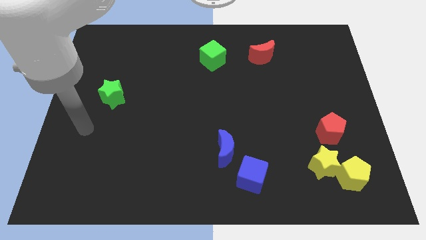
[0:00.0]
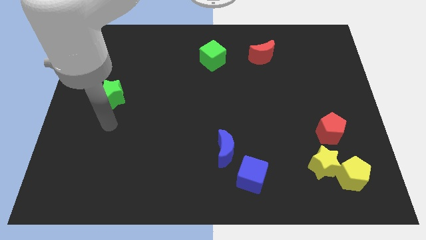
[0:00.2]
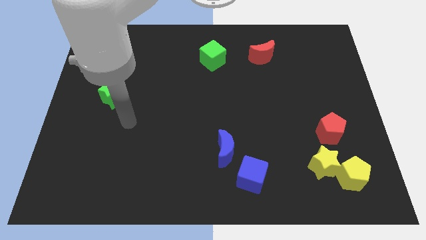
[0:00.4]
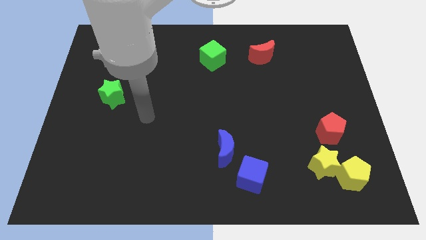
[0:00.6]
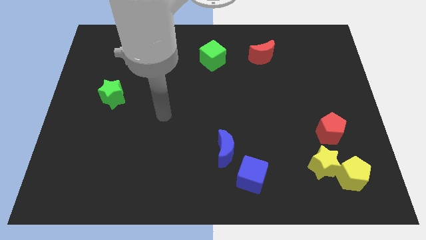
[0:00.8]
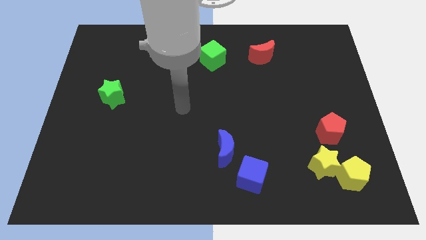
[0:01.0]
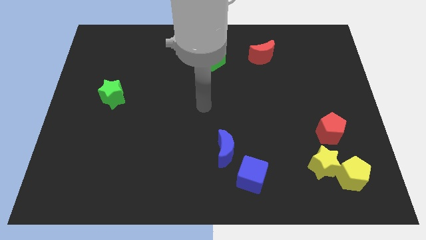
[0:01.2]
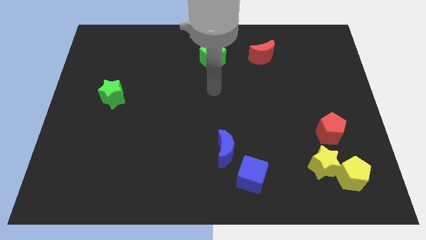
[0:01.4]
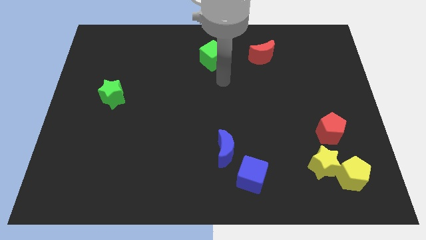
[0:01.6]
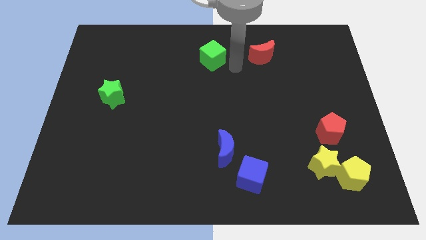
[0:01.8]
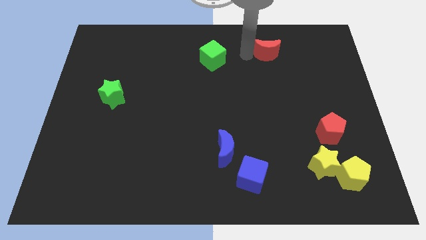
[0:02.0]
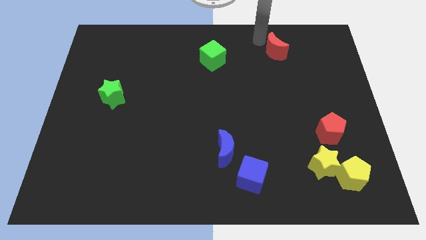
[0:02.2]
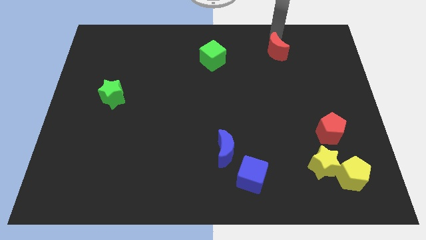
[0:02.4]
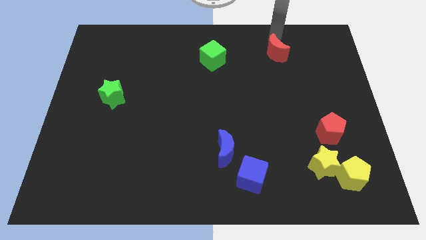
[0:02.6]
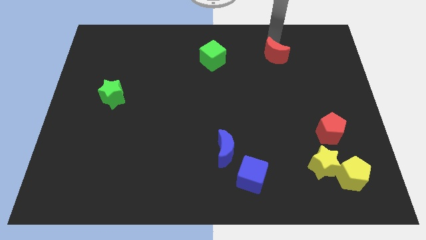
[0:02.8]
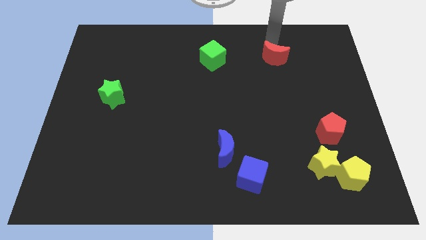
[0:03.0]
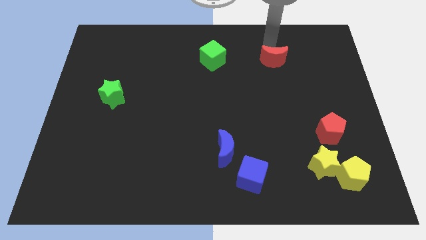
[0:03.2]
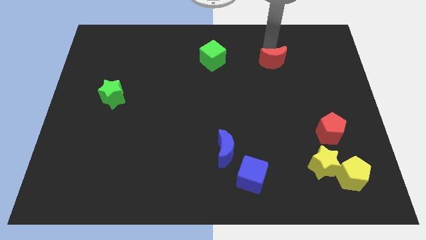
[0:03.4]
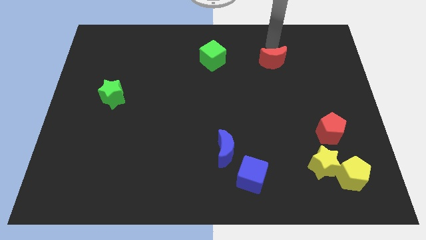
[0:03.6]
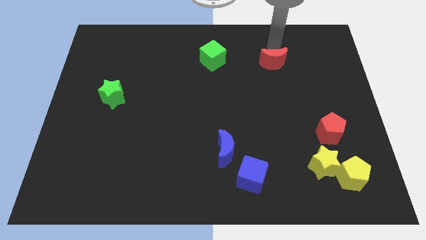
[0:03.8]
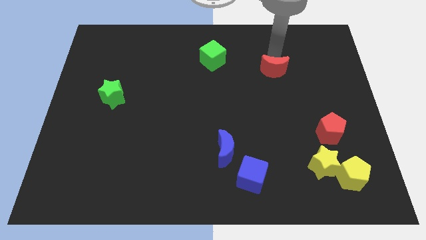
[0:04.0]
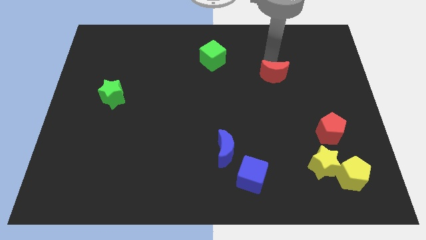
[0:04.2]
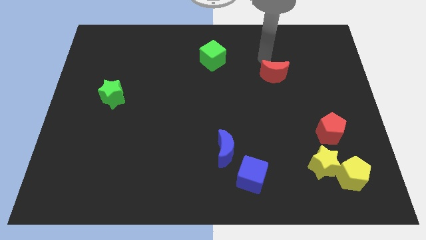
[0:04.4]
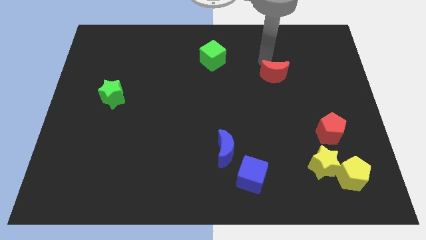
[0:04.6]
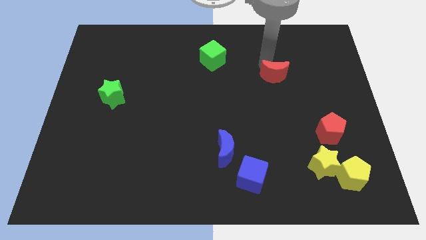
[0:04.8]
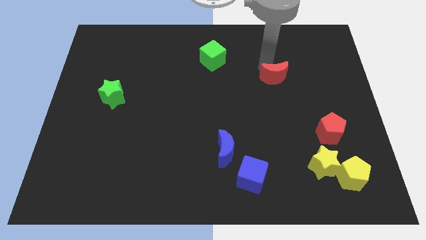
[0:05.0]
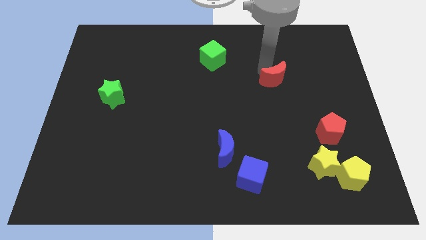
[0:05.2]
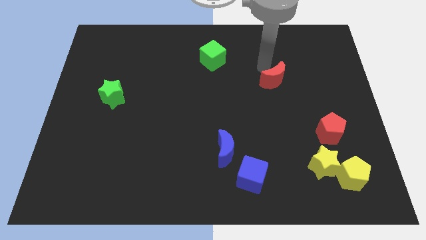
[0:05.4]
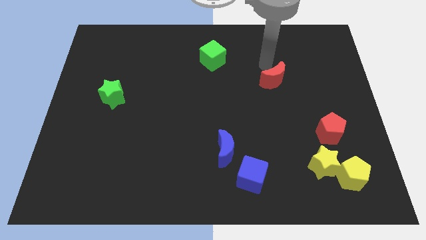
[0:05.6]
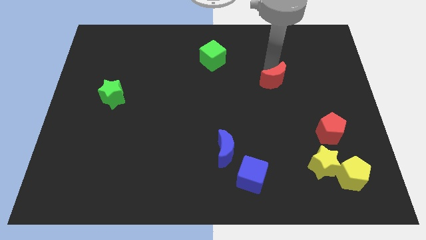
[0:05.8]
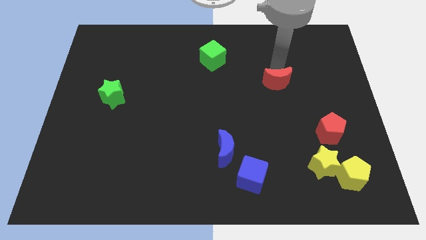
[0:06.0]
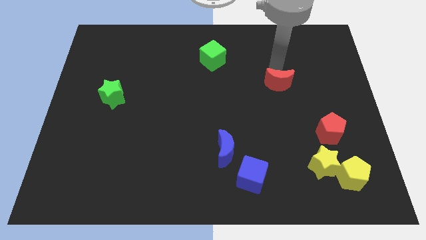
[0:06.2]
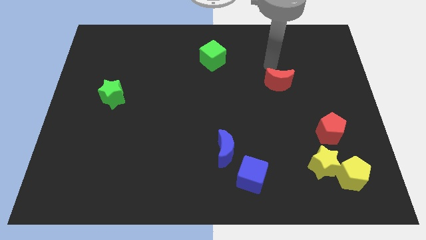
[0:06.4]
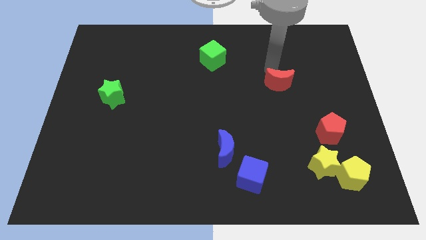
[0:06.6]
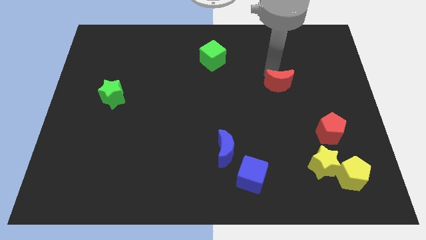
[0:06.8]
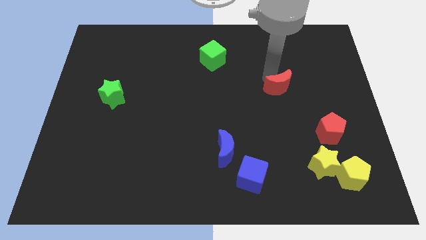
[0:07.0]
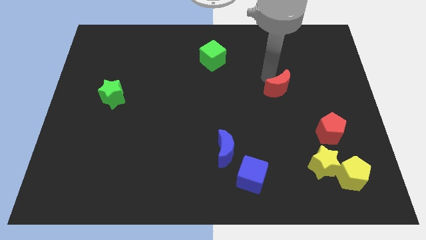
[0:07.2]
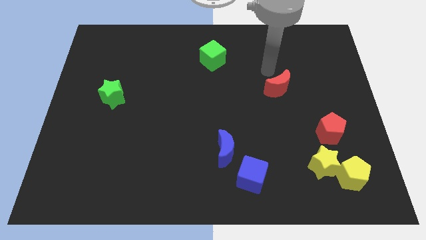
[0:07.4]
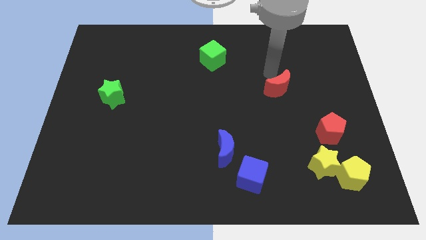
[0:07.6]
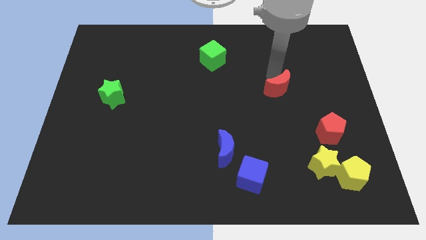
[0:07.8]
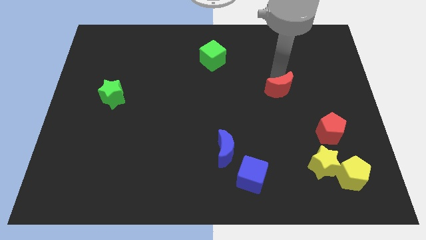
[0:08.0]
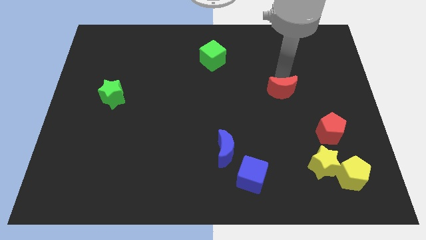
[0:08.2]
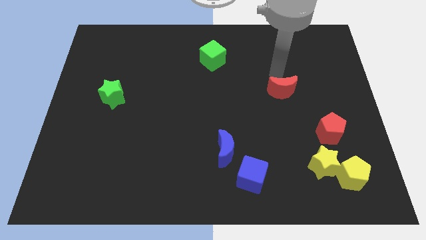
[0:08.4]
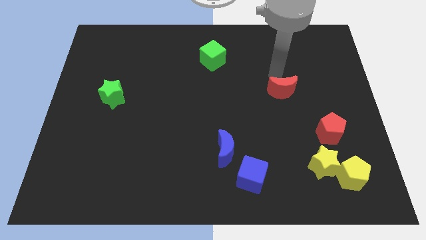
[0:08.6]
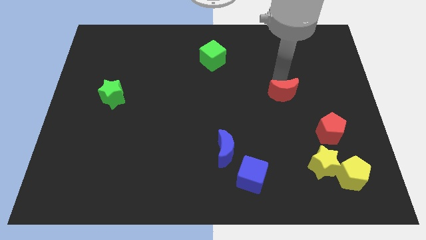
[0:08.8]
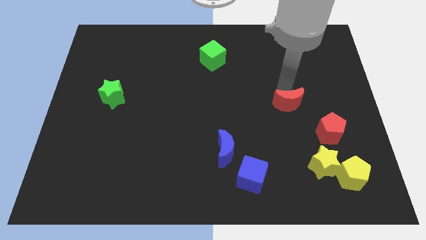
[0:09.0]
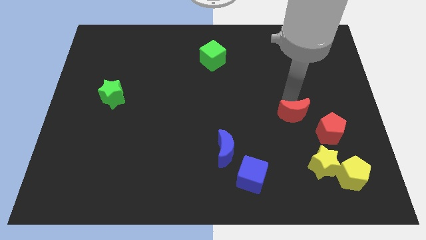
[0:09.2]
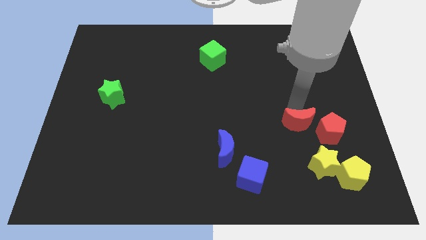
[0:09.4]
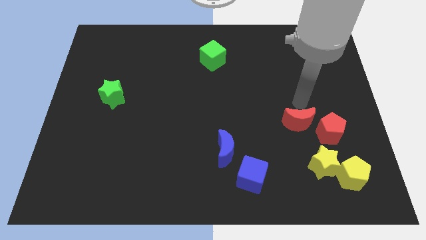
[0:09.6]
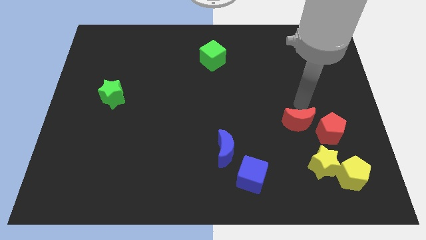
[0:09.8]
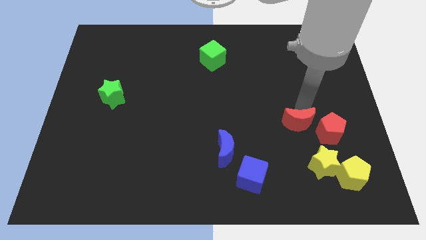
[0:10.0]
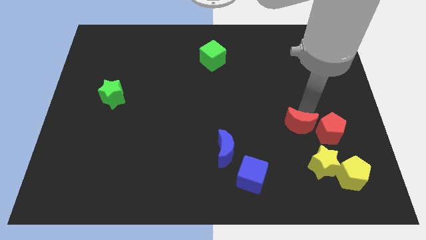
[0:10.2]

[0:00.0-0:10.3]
push the red moon to the top left of the yellow star

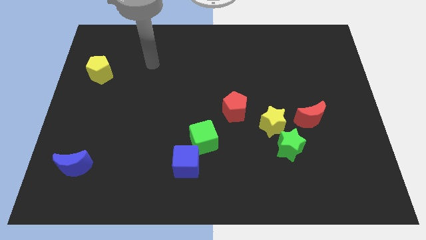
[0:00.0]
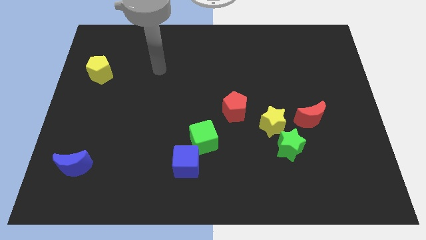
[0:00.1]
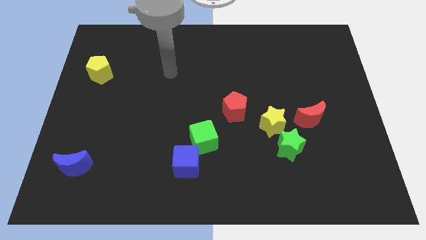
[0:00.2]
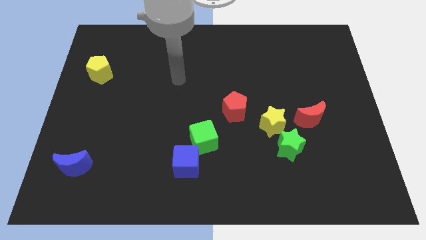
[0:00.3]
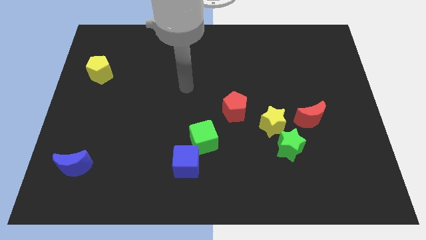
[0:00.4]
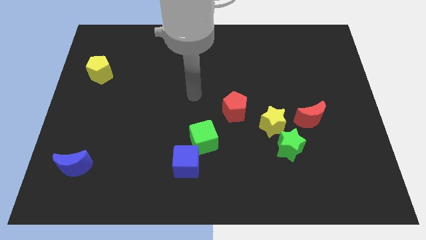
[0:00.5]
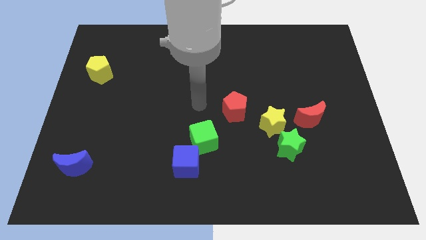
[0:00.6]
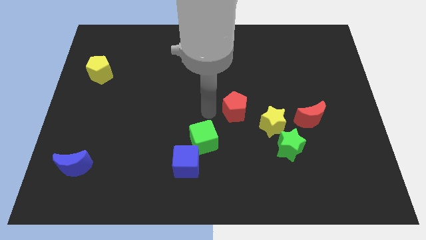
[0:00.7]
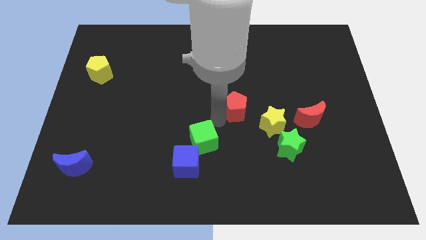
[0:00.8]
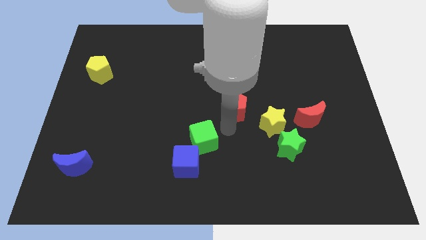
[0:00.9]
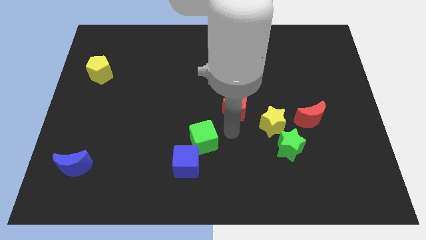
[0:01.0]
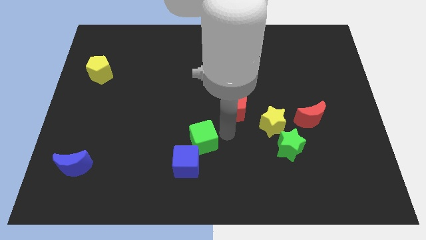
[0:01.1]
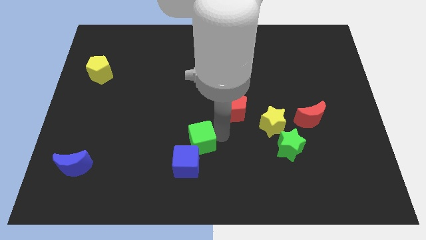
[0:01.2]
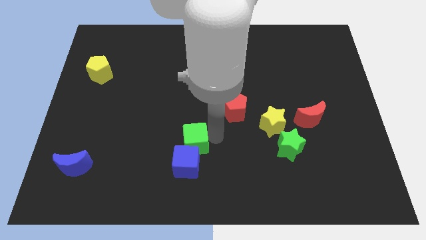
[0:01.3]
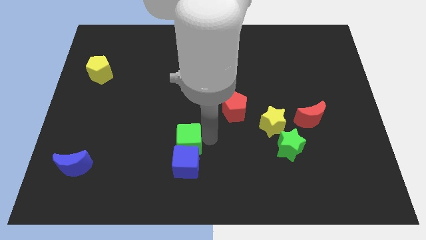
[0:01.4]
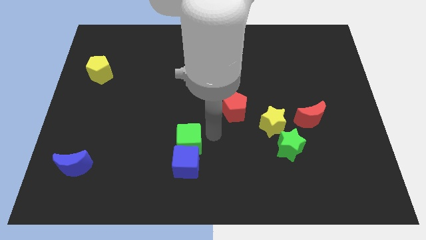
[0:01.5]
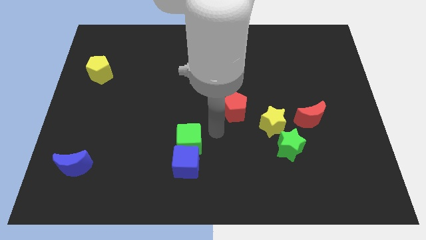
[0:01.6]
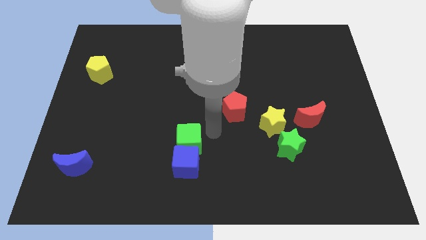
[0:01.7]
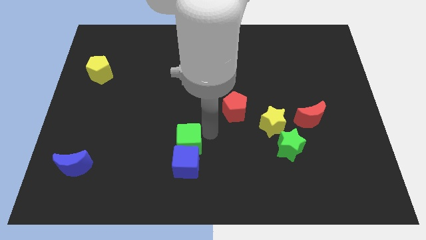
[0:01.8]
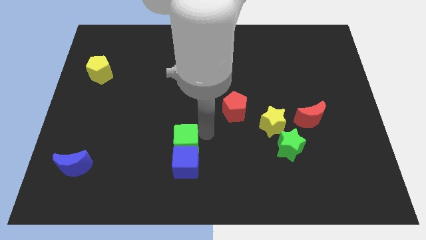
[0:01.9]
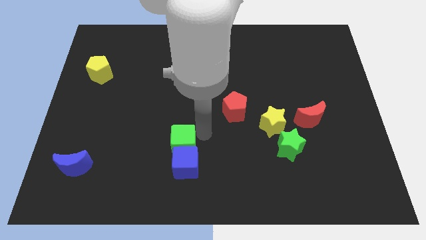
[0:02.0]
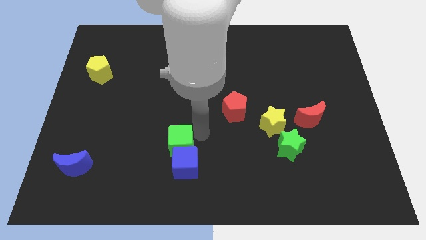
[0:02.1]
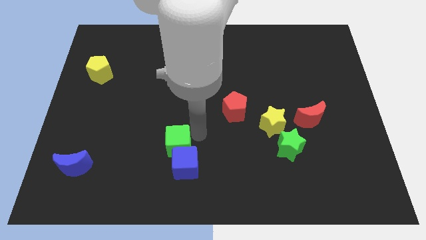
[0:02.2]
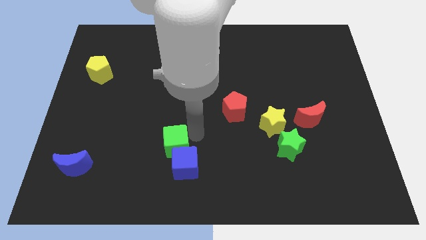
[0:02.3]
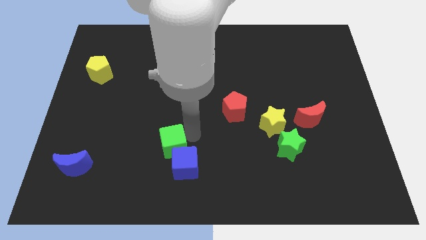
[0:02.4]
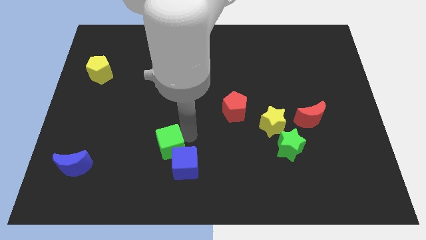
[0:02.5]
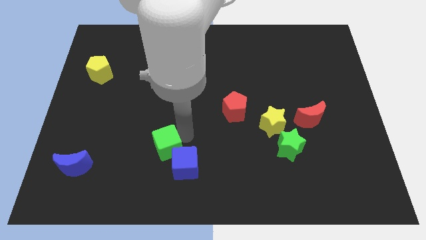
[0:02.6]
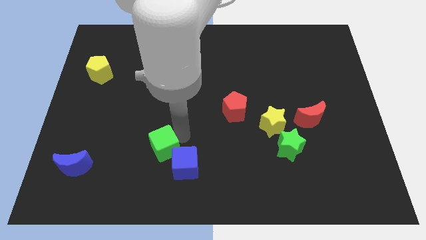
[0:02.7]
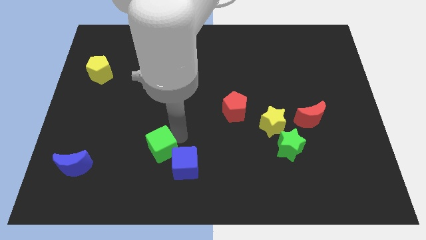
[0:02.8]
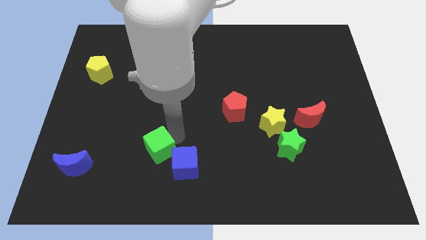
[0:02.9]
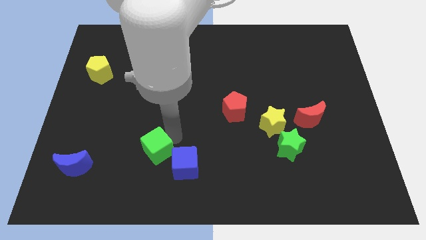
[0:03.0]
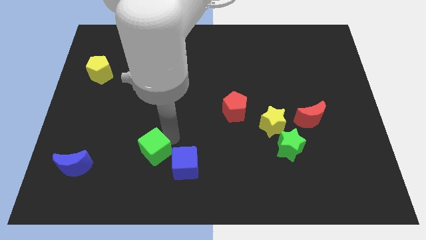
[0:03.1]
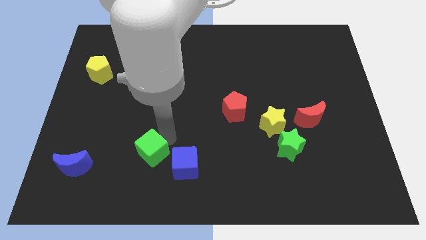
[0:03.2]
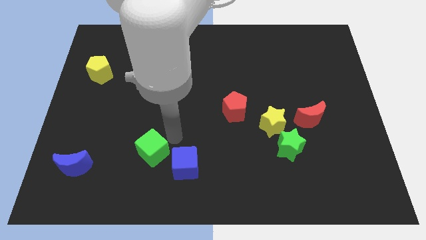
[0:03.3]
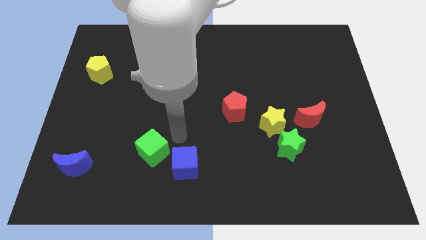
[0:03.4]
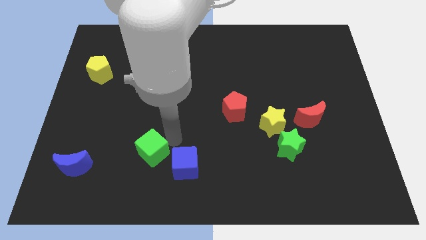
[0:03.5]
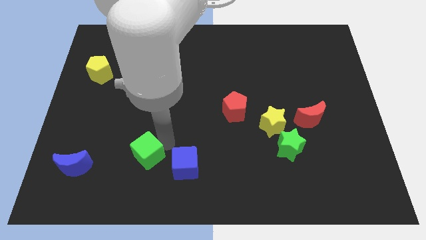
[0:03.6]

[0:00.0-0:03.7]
move the green cube right of the blue moon
